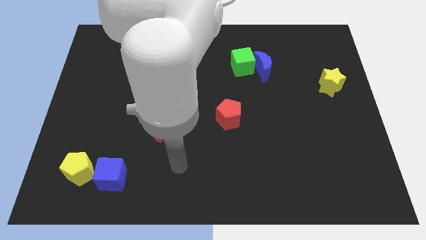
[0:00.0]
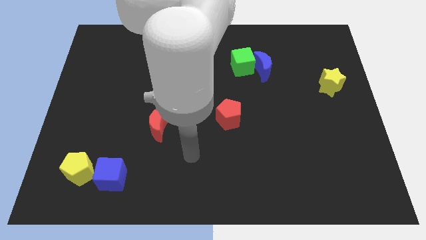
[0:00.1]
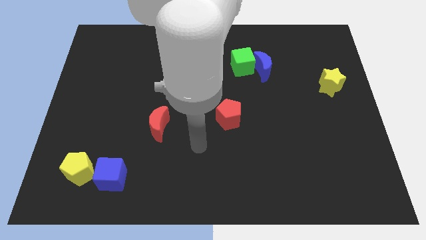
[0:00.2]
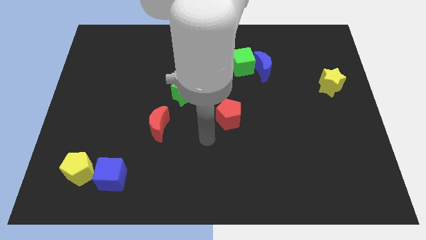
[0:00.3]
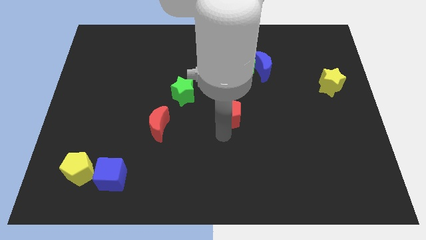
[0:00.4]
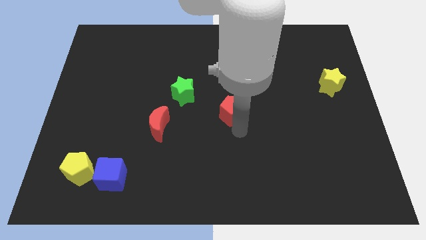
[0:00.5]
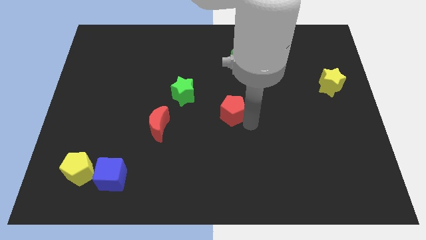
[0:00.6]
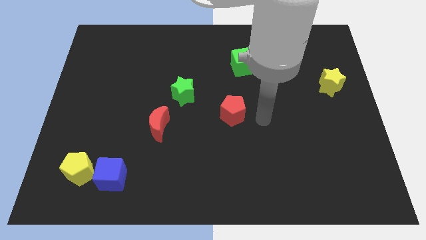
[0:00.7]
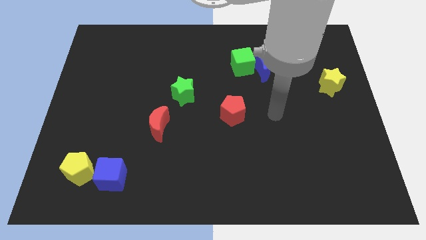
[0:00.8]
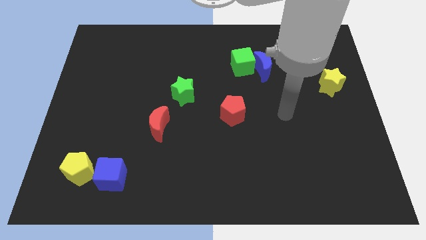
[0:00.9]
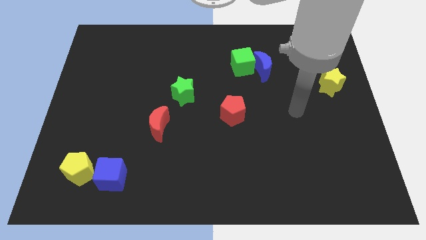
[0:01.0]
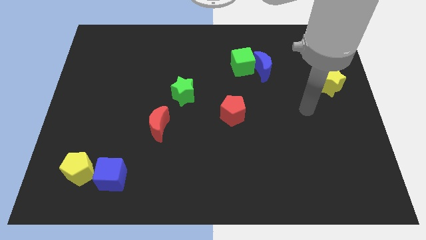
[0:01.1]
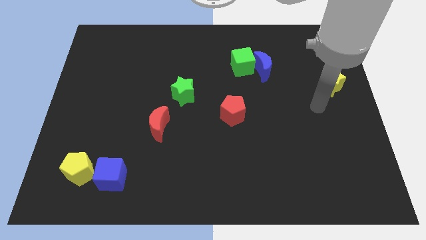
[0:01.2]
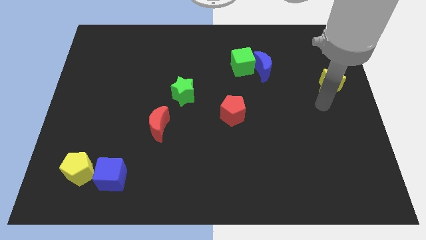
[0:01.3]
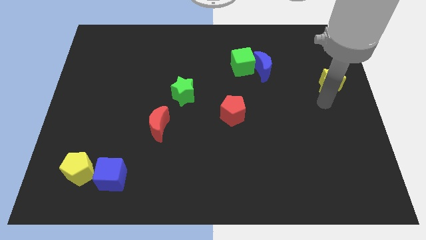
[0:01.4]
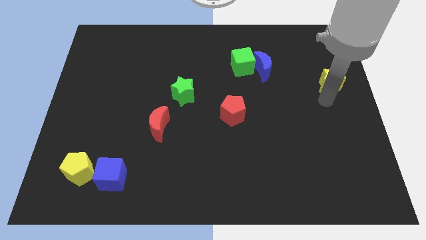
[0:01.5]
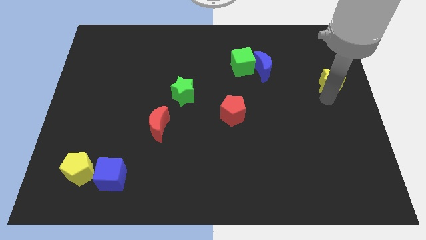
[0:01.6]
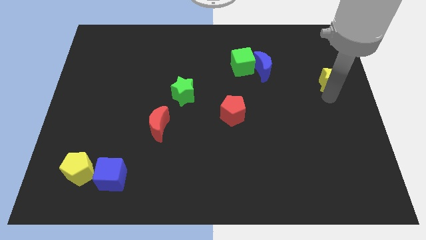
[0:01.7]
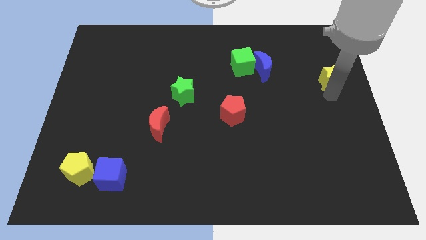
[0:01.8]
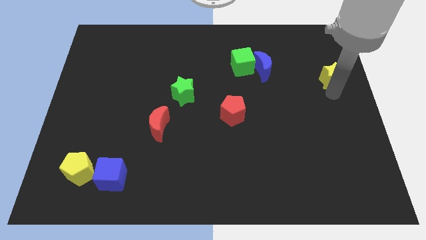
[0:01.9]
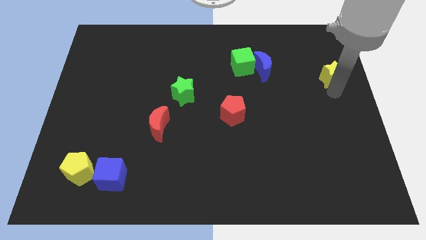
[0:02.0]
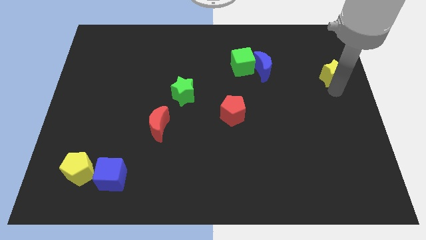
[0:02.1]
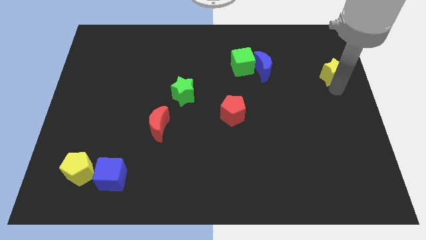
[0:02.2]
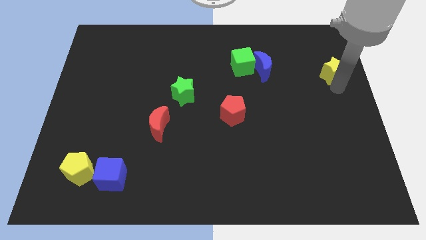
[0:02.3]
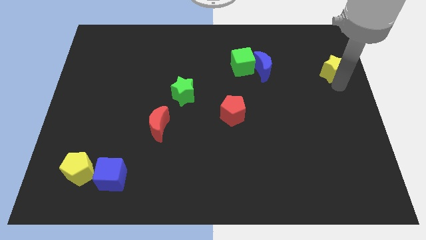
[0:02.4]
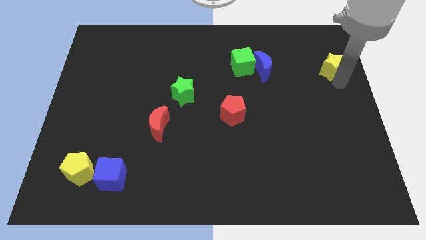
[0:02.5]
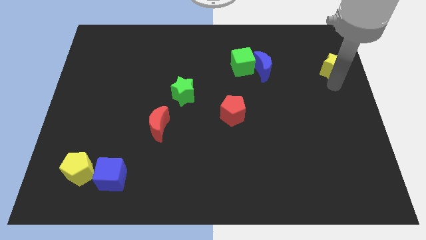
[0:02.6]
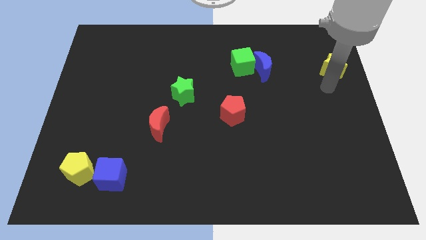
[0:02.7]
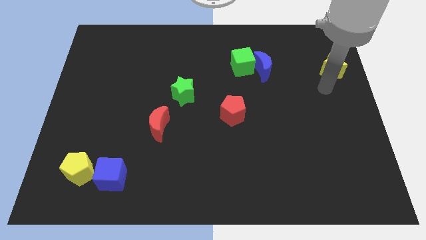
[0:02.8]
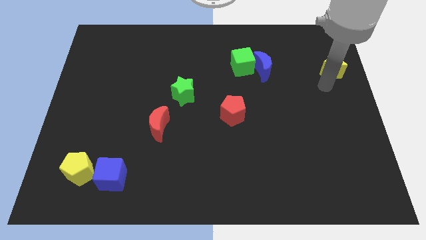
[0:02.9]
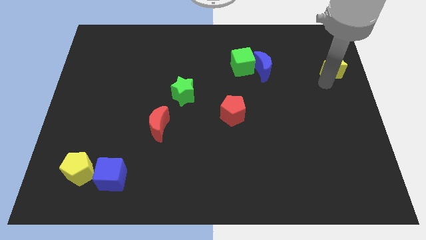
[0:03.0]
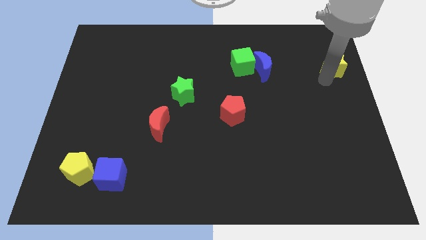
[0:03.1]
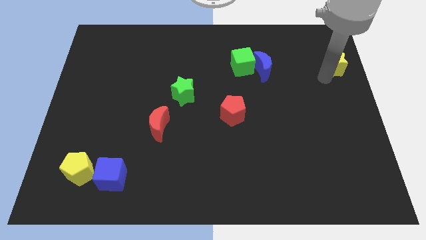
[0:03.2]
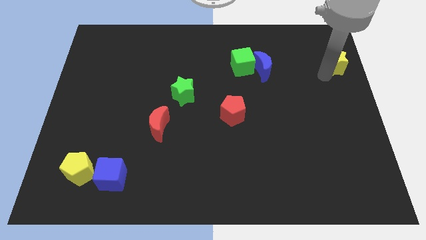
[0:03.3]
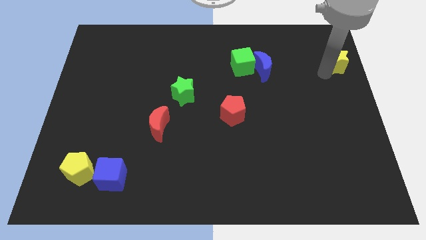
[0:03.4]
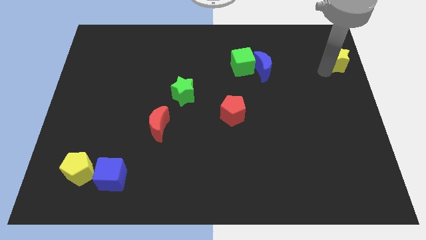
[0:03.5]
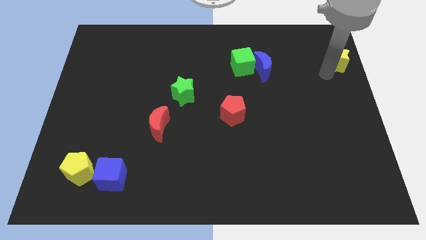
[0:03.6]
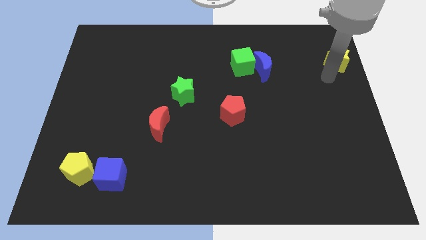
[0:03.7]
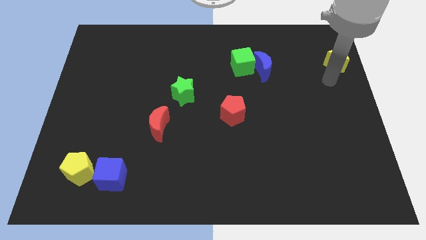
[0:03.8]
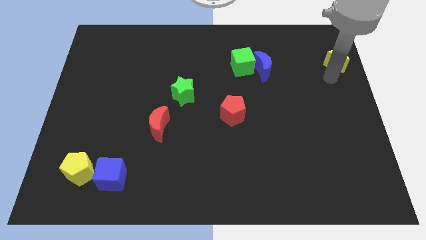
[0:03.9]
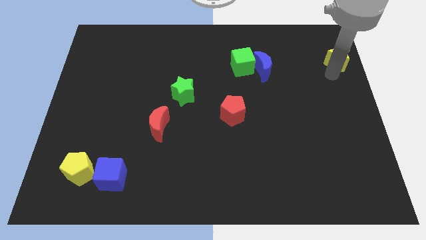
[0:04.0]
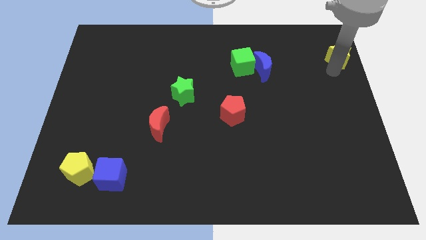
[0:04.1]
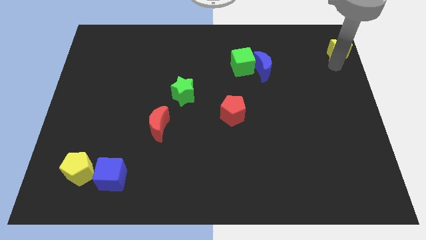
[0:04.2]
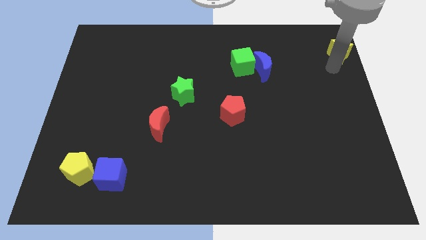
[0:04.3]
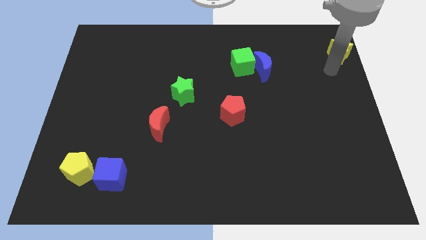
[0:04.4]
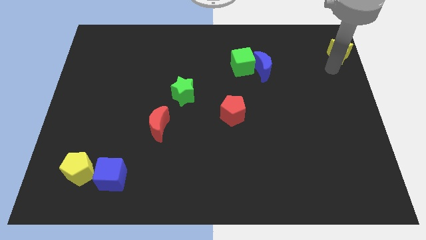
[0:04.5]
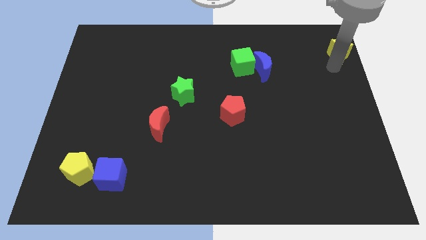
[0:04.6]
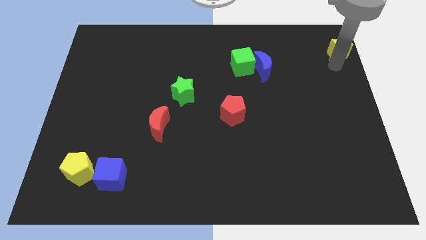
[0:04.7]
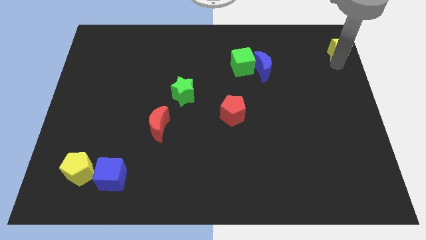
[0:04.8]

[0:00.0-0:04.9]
push the yellow star to the top right

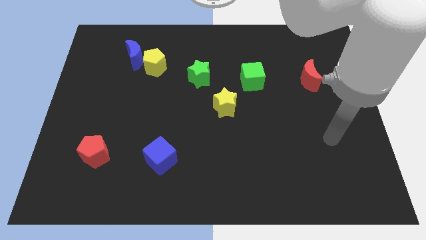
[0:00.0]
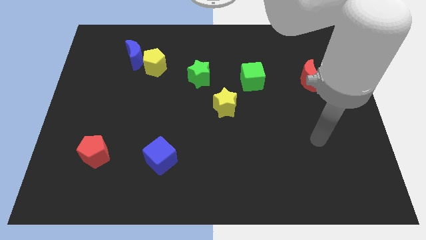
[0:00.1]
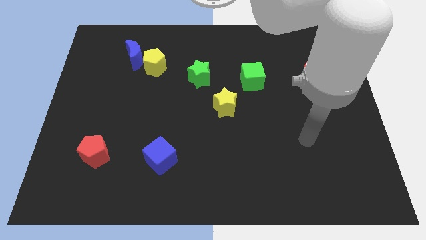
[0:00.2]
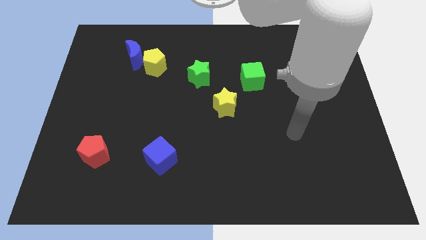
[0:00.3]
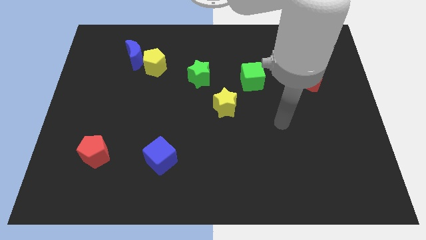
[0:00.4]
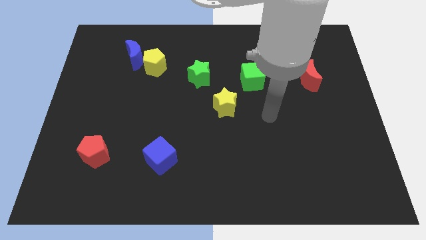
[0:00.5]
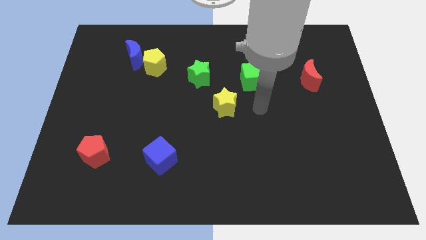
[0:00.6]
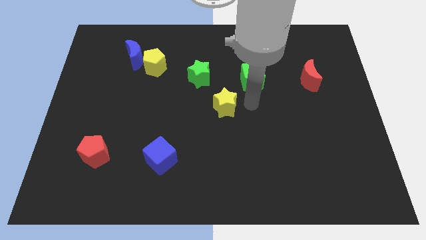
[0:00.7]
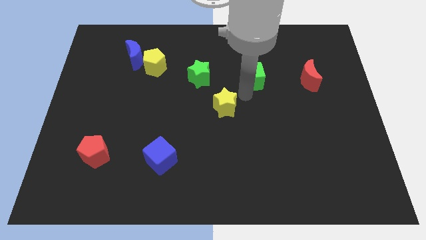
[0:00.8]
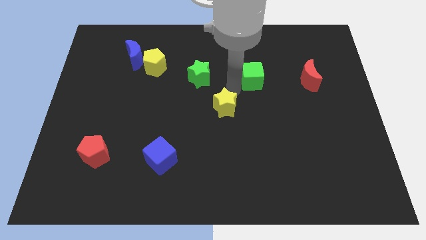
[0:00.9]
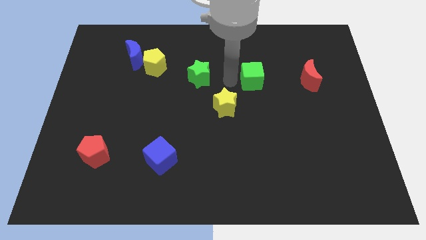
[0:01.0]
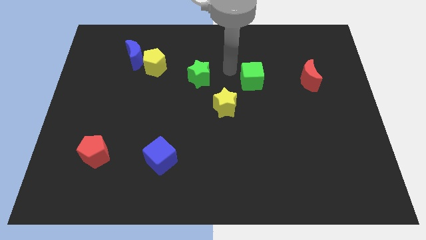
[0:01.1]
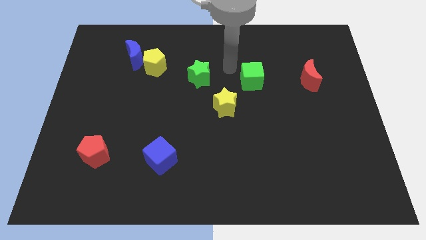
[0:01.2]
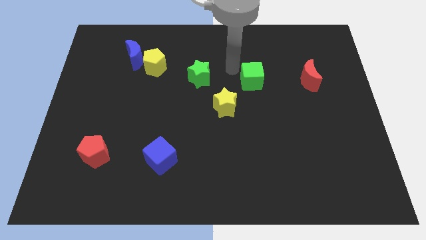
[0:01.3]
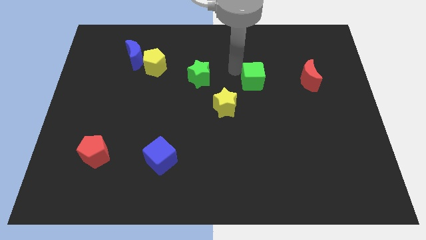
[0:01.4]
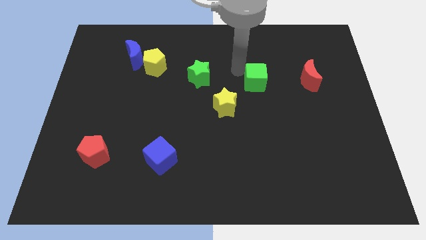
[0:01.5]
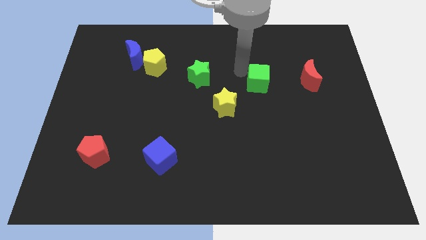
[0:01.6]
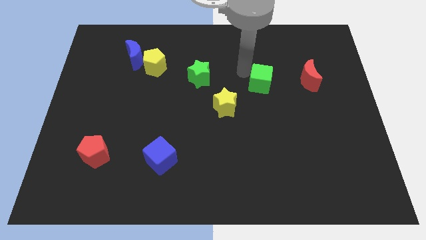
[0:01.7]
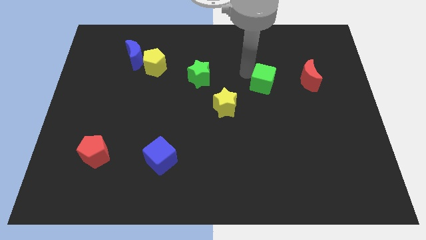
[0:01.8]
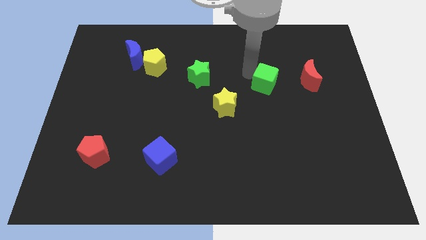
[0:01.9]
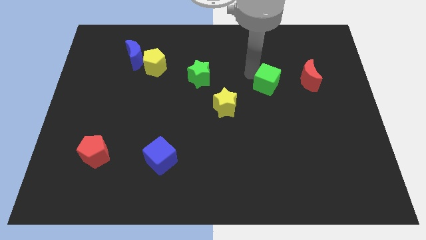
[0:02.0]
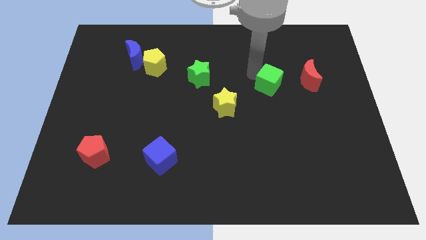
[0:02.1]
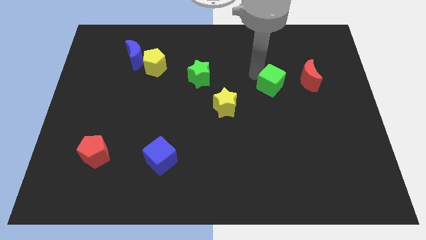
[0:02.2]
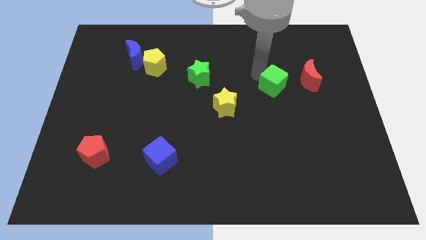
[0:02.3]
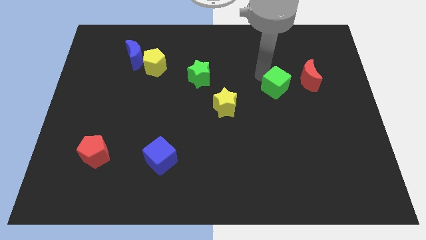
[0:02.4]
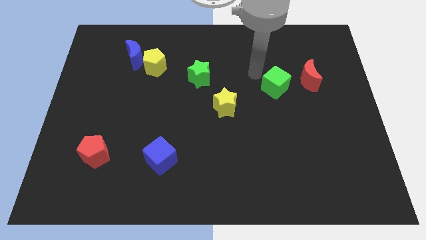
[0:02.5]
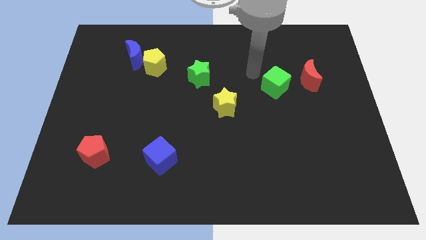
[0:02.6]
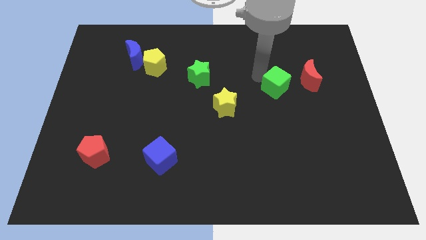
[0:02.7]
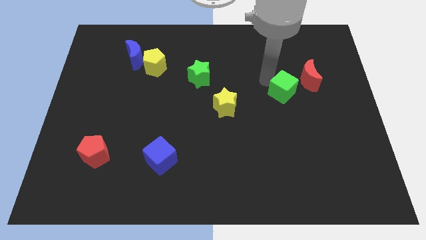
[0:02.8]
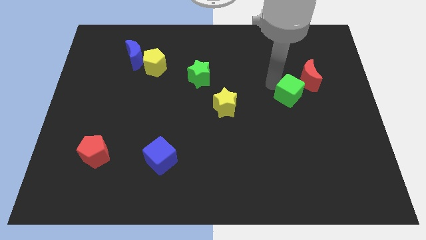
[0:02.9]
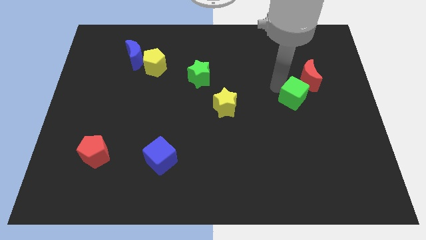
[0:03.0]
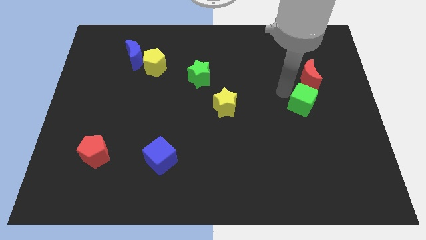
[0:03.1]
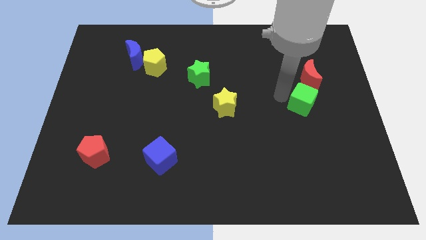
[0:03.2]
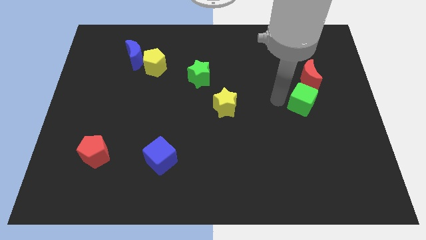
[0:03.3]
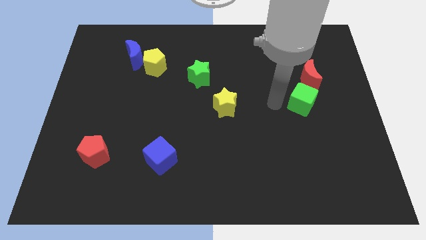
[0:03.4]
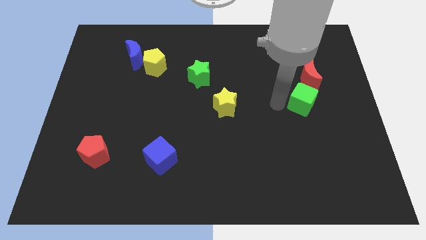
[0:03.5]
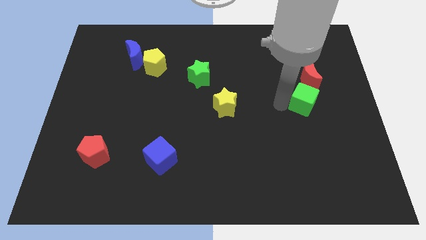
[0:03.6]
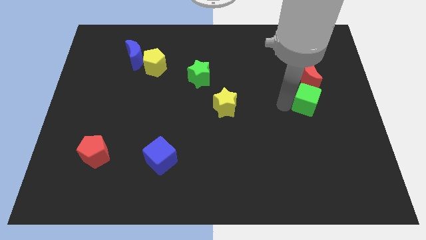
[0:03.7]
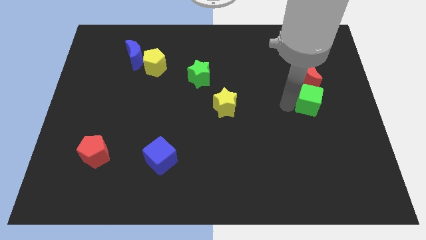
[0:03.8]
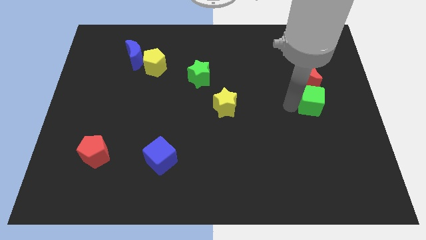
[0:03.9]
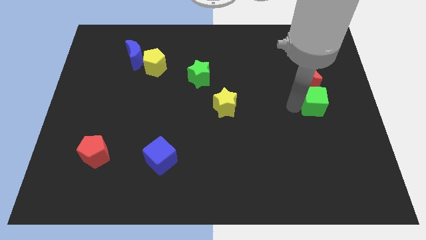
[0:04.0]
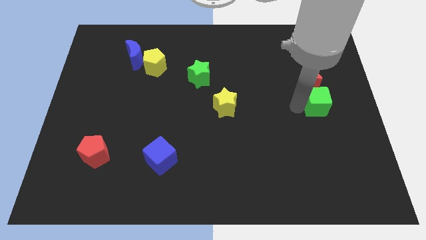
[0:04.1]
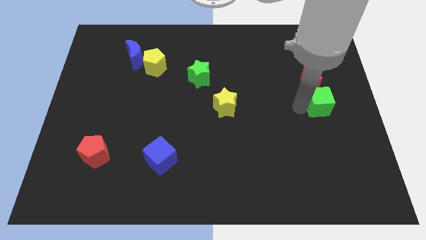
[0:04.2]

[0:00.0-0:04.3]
slide the green cube to the center right
